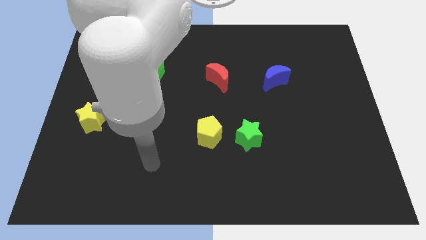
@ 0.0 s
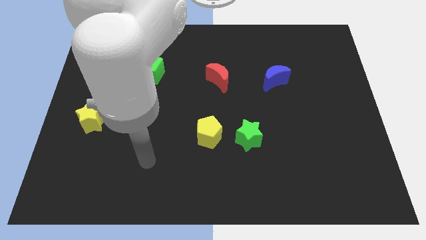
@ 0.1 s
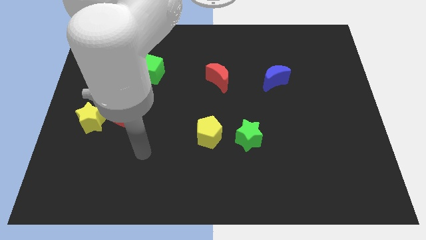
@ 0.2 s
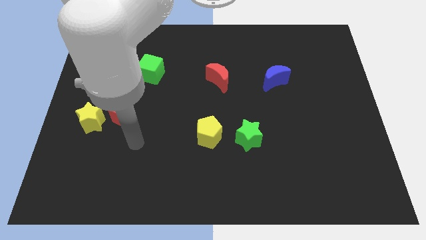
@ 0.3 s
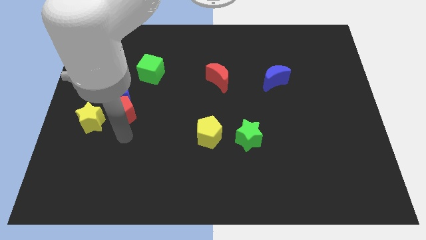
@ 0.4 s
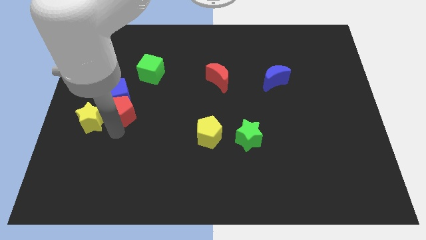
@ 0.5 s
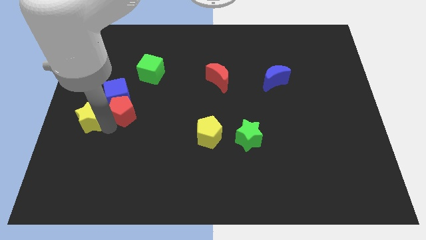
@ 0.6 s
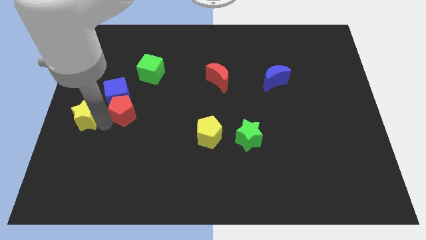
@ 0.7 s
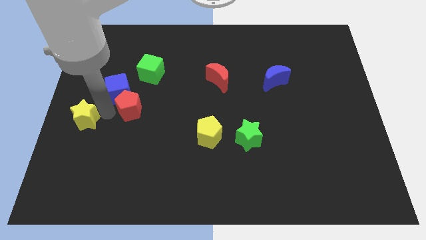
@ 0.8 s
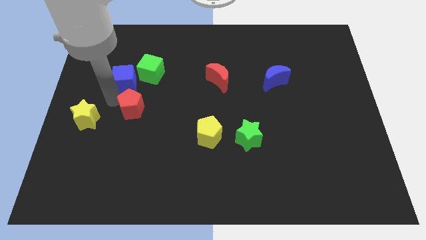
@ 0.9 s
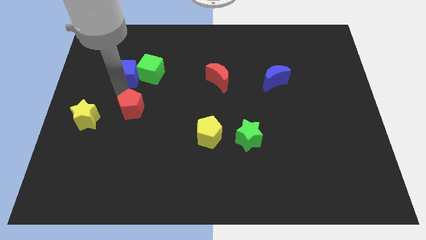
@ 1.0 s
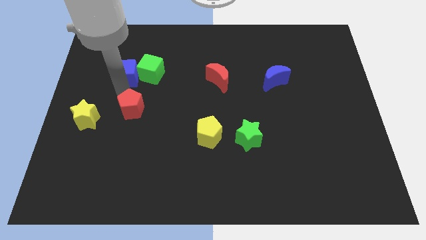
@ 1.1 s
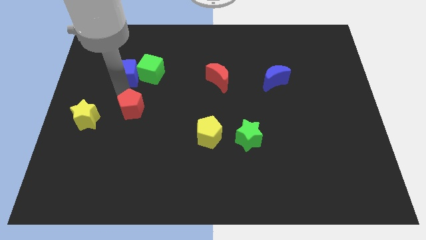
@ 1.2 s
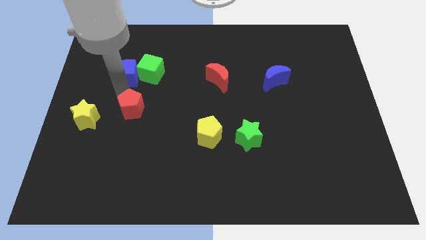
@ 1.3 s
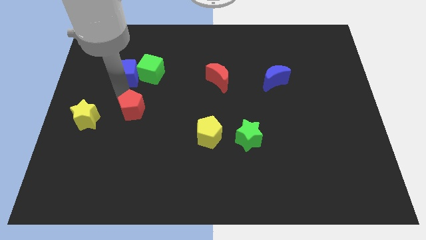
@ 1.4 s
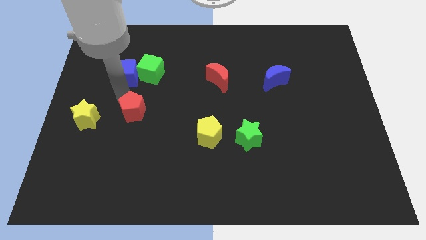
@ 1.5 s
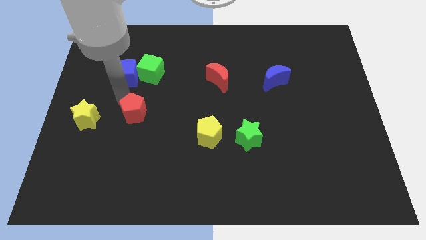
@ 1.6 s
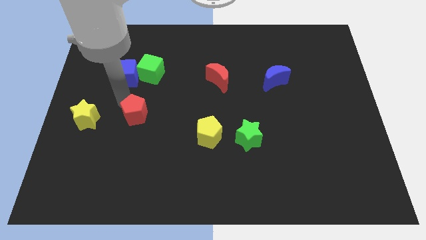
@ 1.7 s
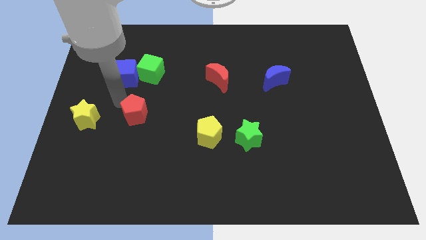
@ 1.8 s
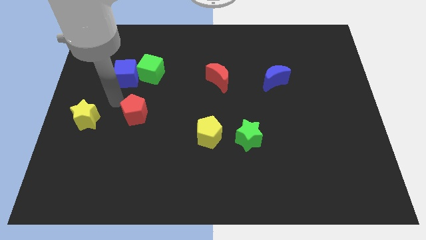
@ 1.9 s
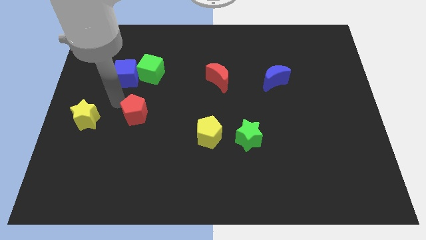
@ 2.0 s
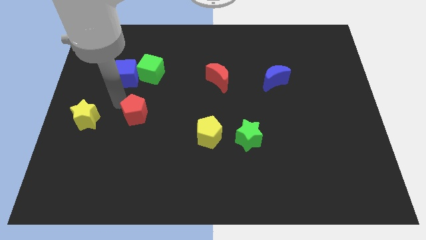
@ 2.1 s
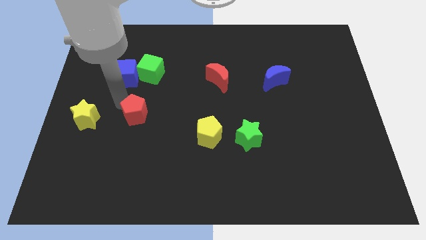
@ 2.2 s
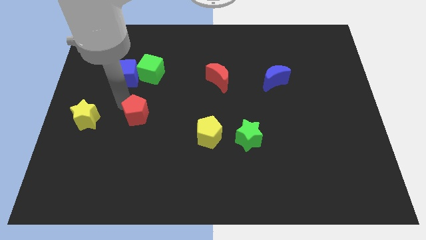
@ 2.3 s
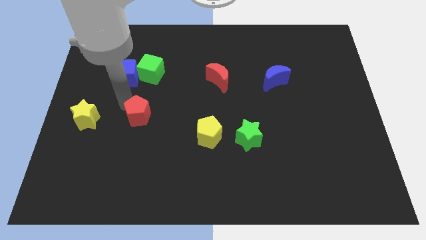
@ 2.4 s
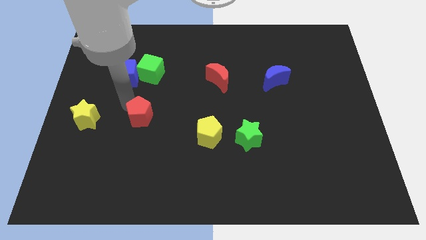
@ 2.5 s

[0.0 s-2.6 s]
pull the red pentagon apart from the blue cube and yellow star

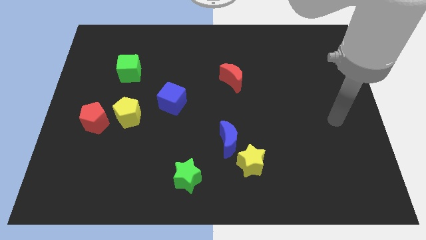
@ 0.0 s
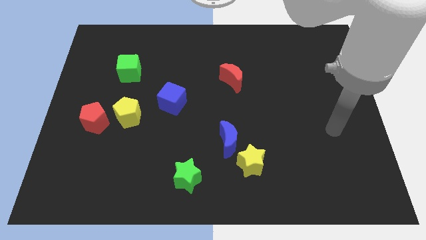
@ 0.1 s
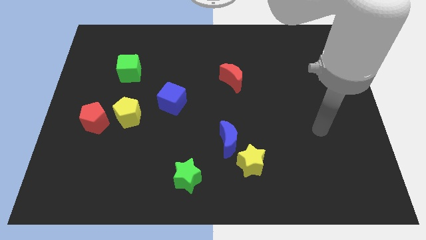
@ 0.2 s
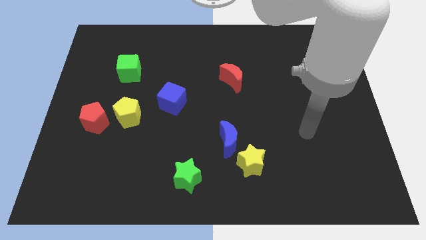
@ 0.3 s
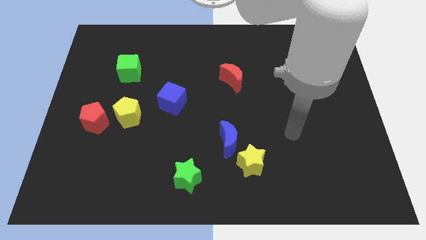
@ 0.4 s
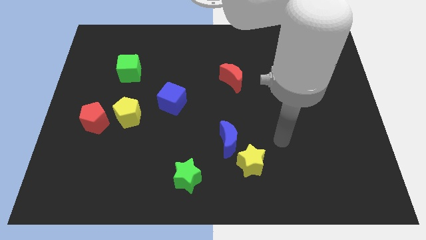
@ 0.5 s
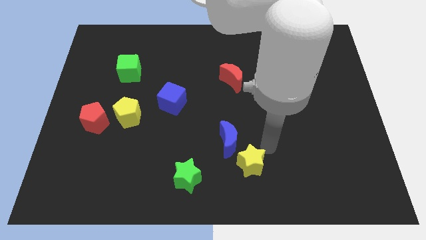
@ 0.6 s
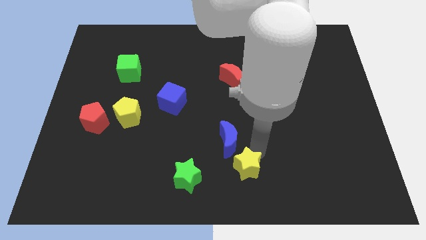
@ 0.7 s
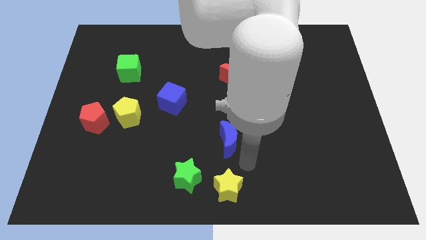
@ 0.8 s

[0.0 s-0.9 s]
separate the blue moon from the yellow star

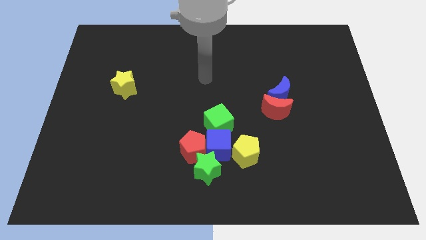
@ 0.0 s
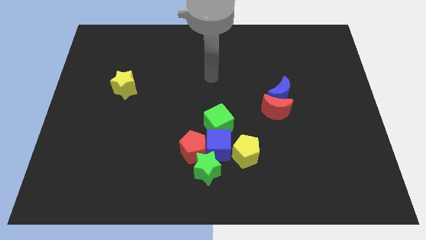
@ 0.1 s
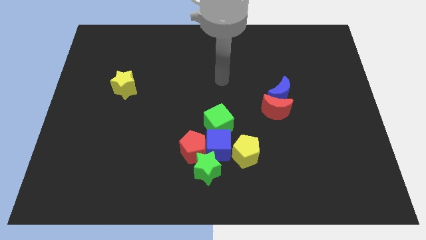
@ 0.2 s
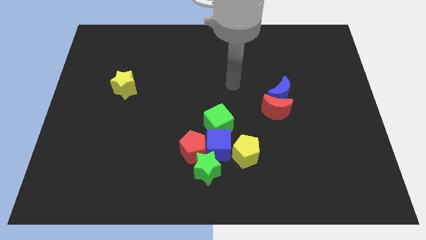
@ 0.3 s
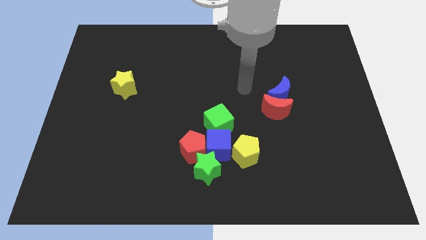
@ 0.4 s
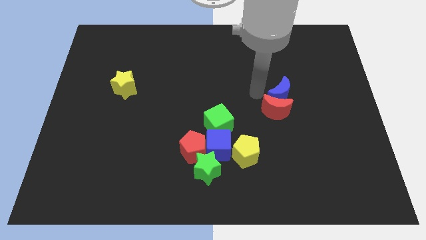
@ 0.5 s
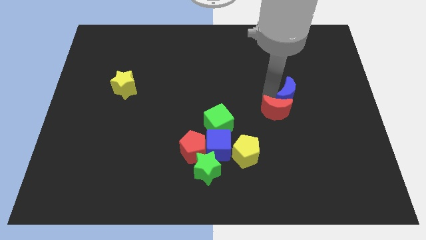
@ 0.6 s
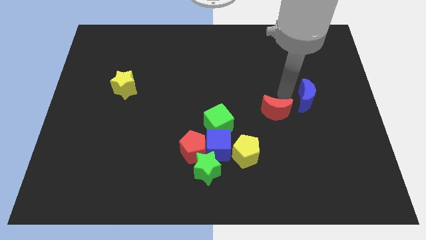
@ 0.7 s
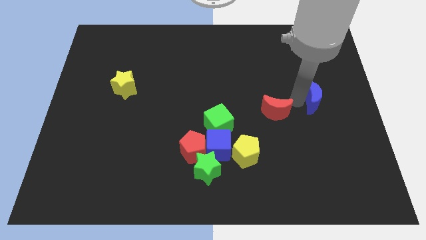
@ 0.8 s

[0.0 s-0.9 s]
separate the red moon from the blue moon

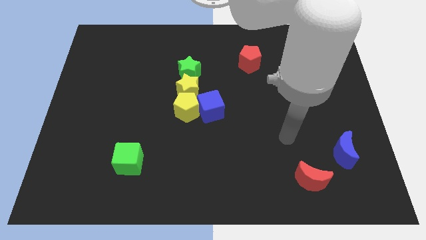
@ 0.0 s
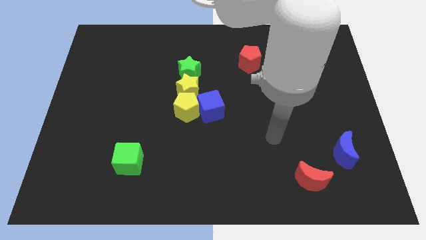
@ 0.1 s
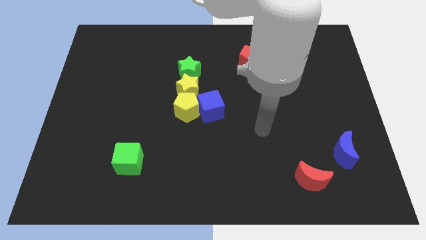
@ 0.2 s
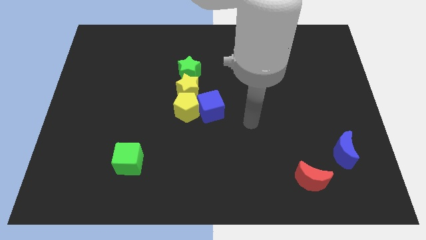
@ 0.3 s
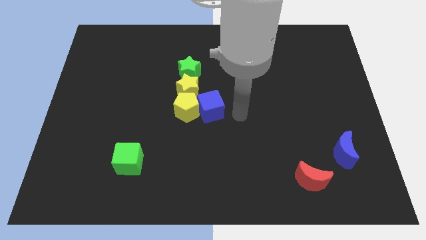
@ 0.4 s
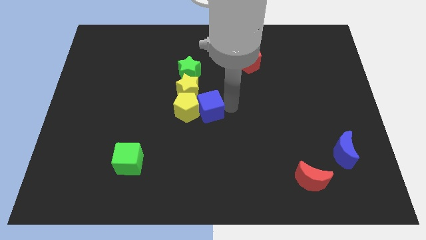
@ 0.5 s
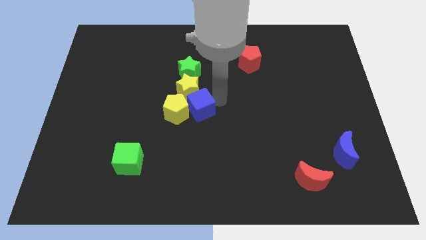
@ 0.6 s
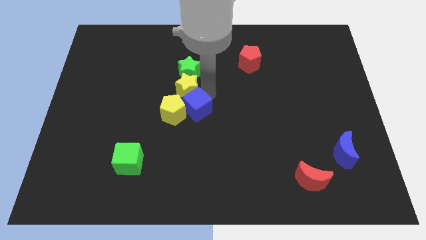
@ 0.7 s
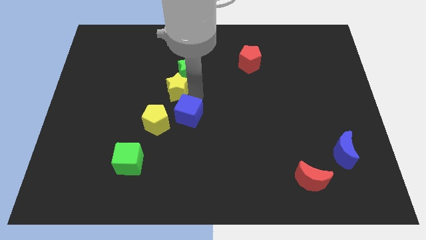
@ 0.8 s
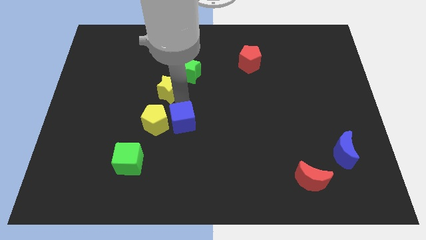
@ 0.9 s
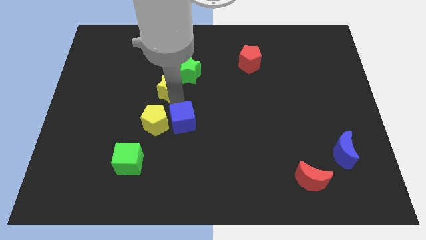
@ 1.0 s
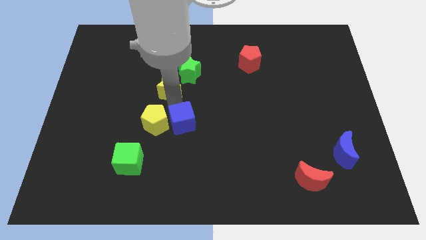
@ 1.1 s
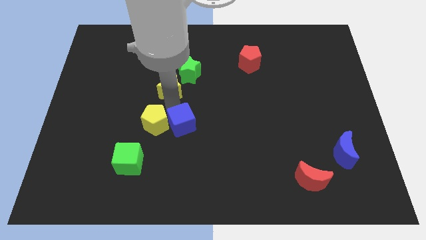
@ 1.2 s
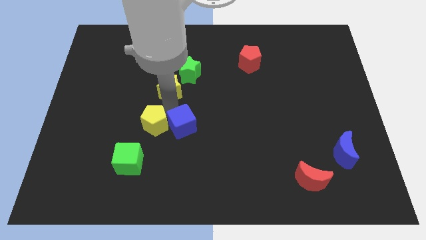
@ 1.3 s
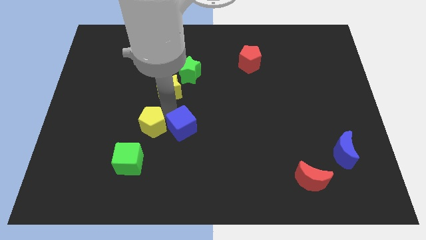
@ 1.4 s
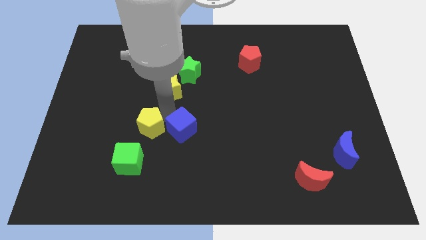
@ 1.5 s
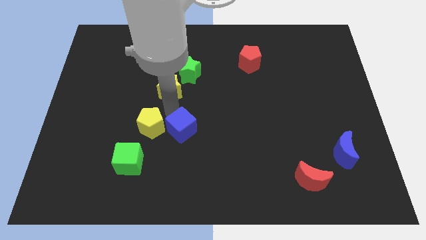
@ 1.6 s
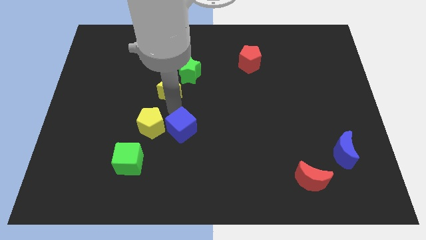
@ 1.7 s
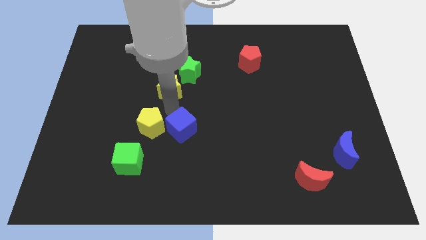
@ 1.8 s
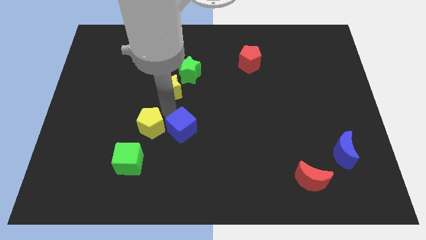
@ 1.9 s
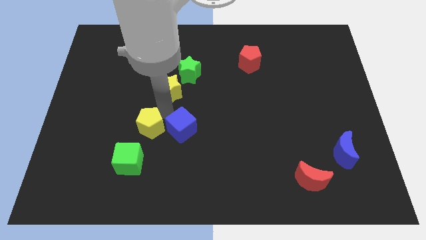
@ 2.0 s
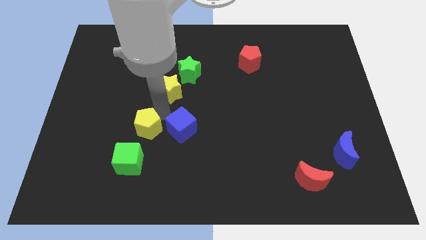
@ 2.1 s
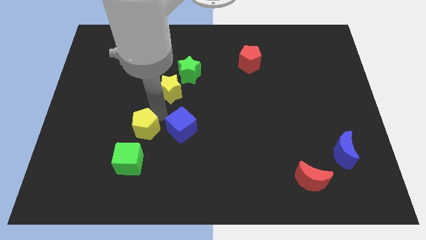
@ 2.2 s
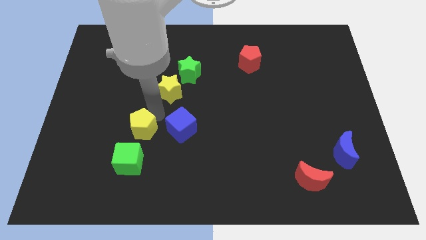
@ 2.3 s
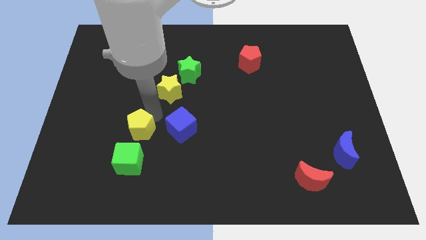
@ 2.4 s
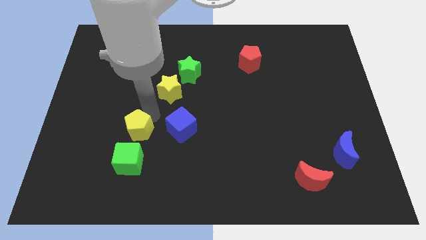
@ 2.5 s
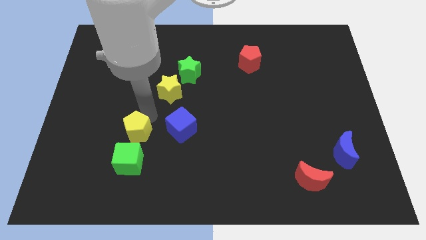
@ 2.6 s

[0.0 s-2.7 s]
move the yellow pentagon away from the yellow star and blue cube

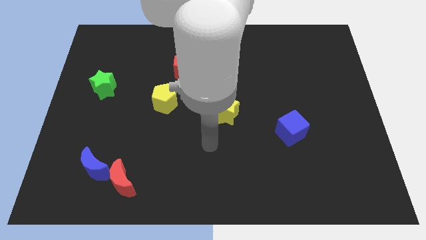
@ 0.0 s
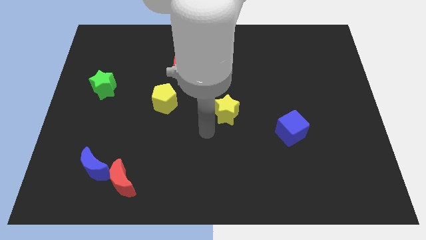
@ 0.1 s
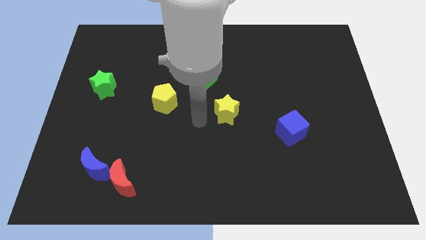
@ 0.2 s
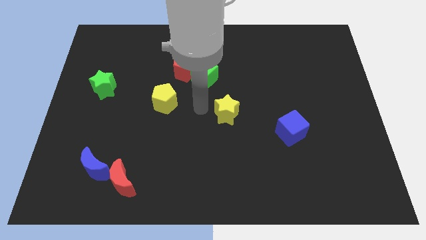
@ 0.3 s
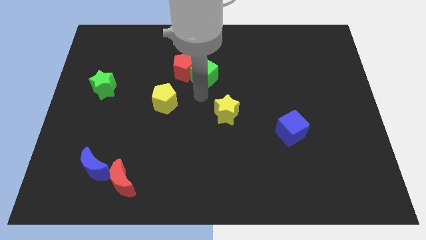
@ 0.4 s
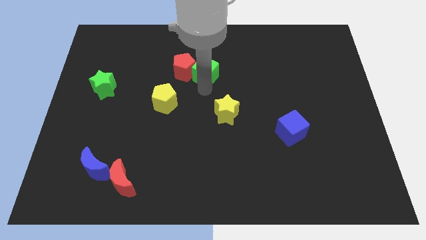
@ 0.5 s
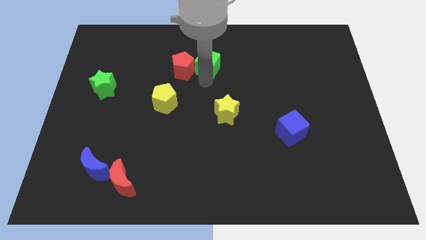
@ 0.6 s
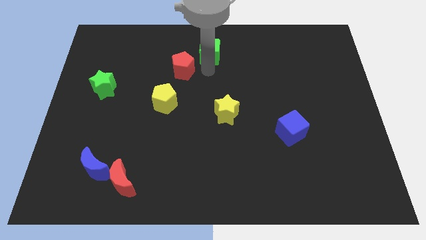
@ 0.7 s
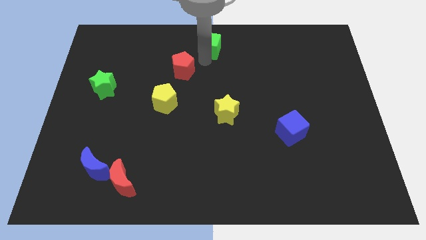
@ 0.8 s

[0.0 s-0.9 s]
move the red pentagon away from the green cube

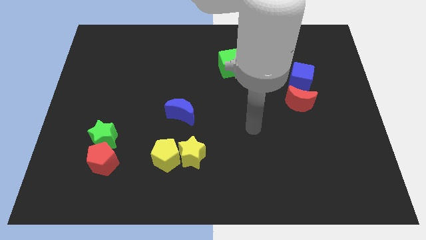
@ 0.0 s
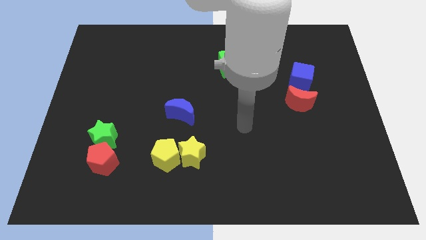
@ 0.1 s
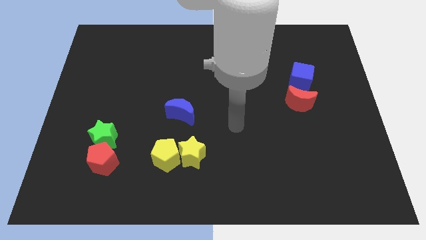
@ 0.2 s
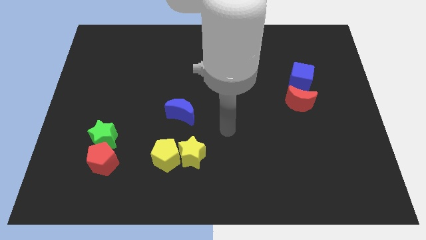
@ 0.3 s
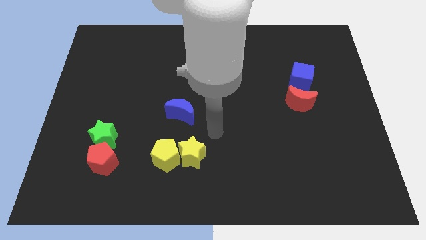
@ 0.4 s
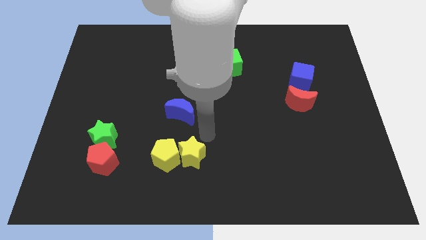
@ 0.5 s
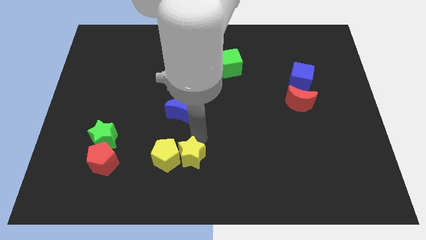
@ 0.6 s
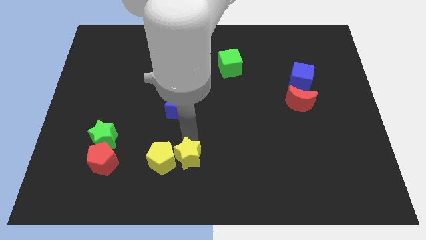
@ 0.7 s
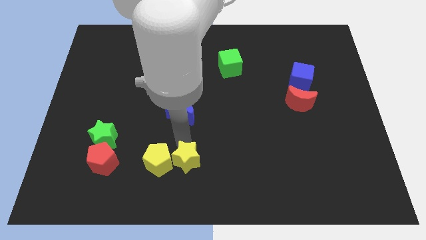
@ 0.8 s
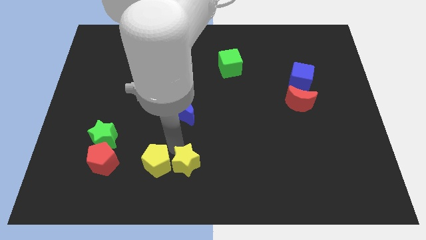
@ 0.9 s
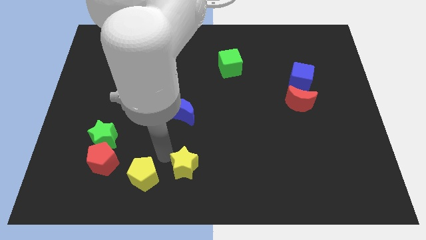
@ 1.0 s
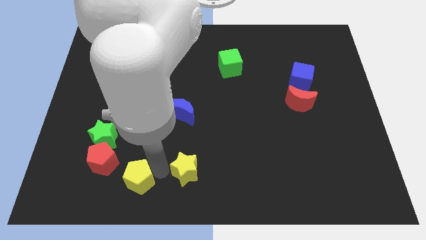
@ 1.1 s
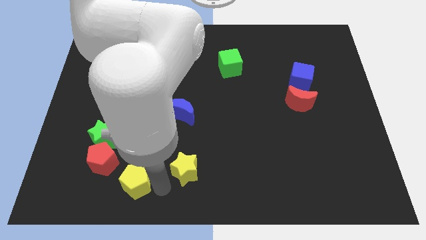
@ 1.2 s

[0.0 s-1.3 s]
pull the yellow star apart from the yellow pentagon
